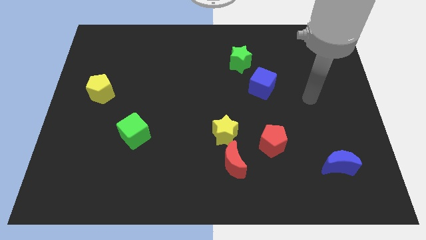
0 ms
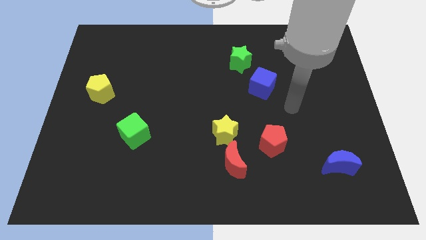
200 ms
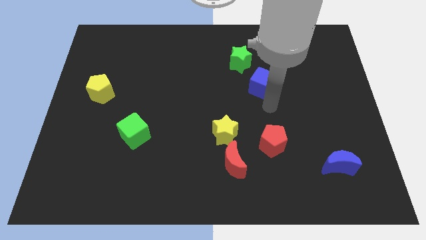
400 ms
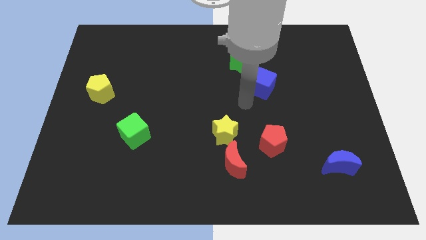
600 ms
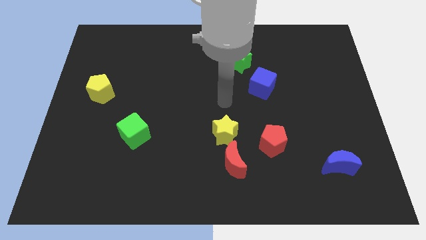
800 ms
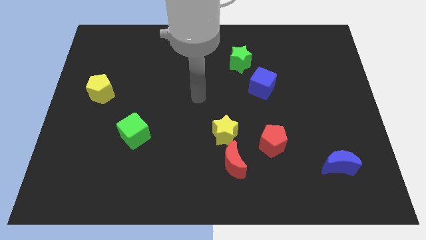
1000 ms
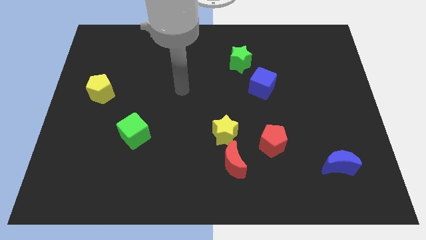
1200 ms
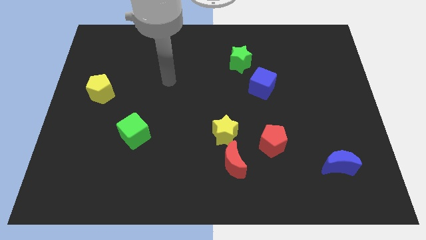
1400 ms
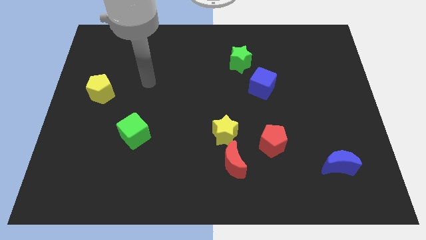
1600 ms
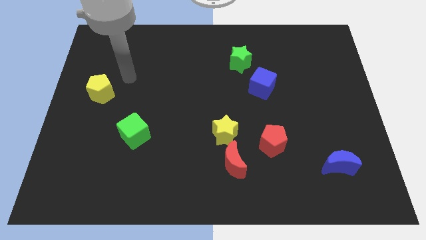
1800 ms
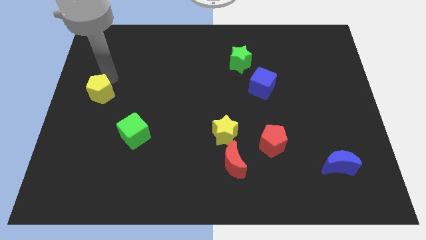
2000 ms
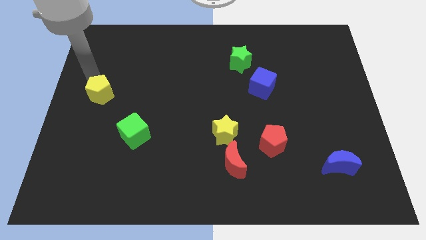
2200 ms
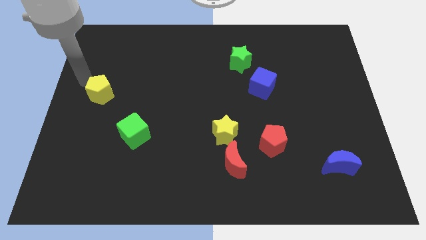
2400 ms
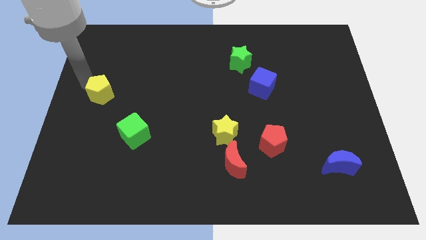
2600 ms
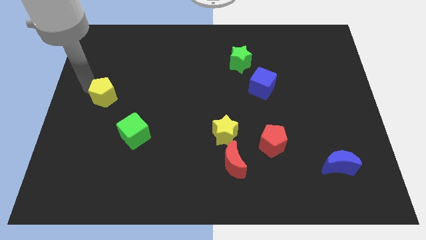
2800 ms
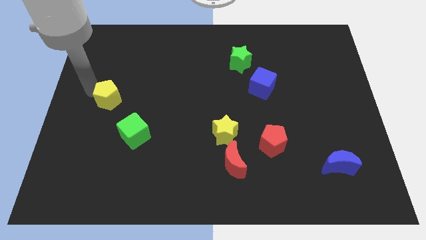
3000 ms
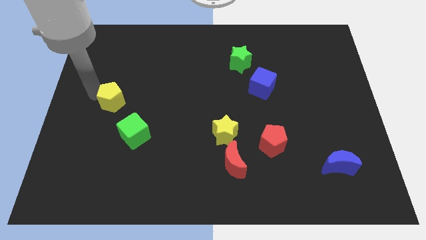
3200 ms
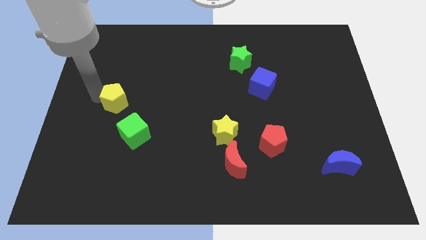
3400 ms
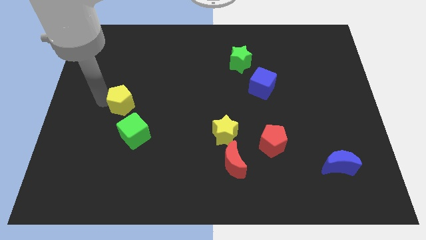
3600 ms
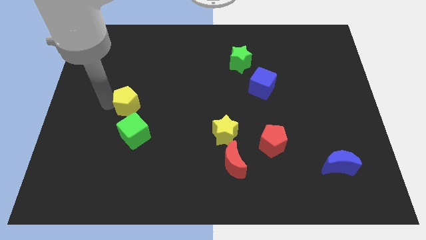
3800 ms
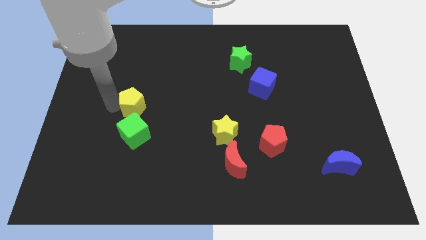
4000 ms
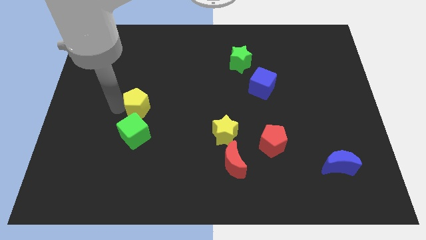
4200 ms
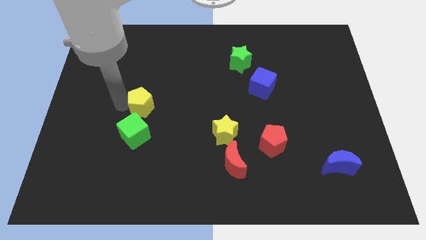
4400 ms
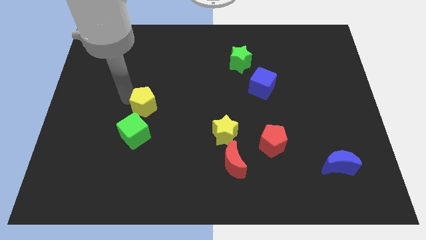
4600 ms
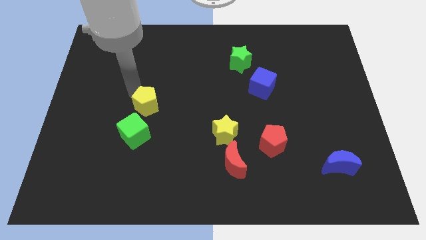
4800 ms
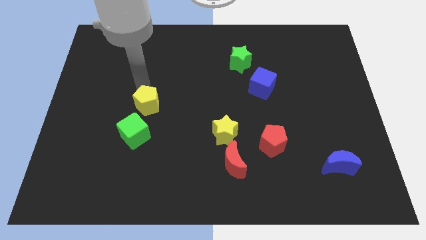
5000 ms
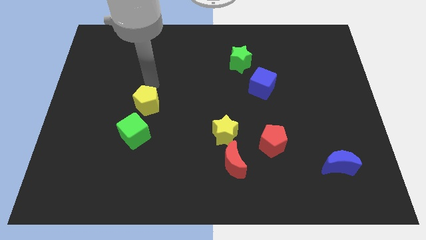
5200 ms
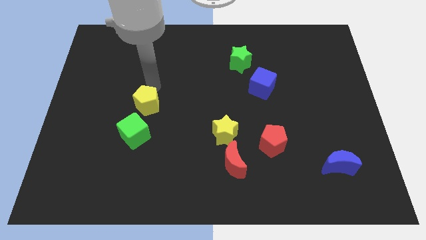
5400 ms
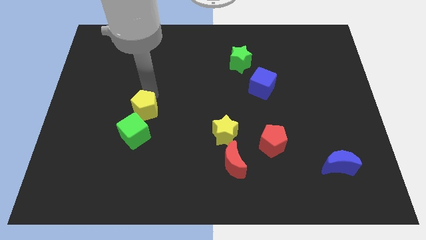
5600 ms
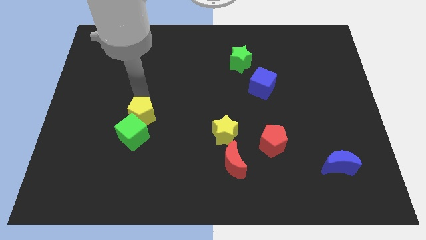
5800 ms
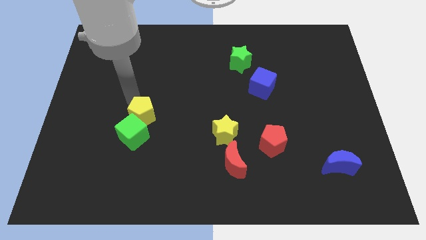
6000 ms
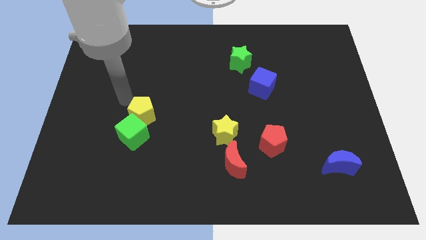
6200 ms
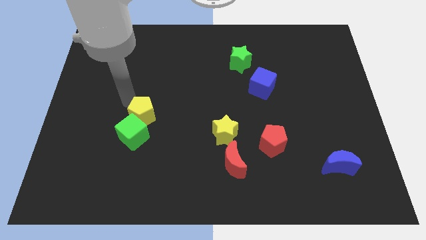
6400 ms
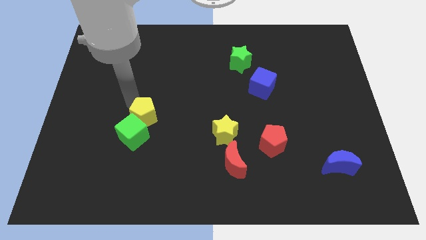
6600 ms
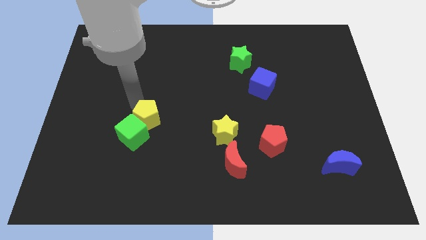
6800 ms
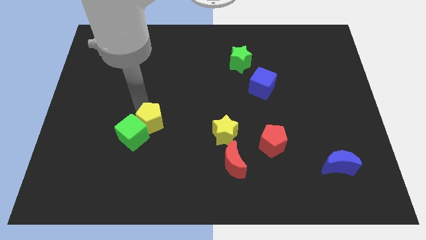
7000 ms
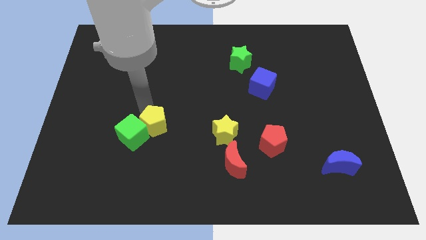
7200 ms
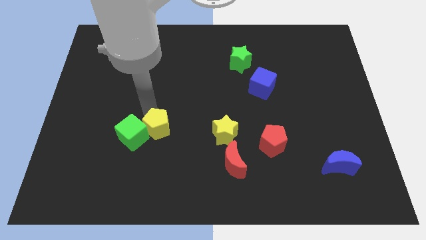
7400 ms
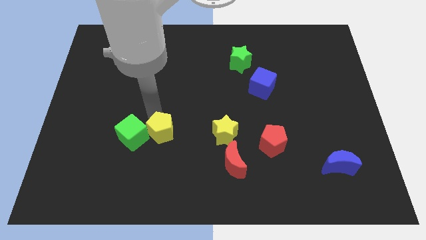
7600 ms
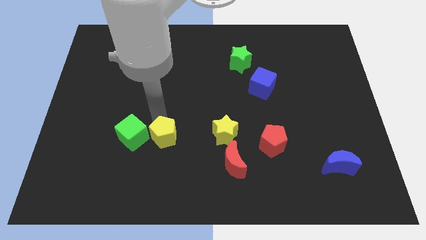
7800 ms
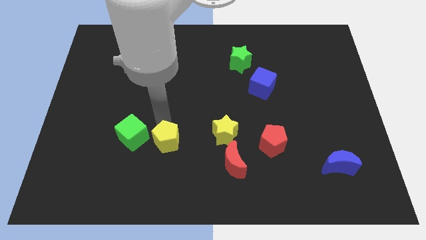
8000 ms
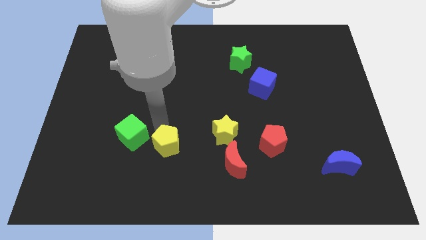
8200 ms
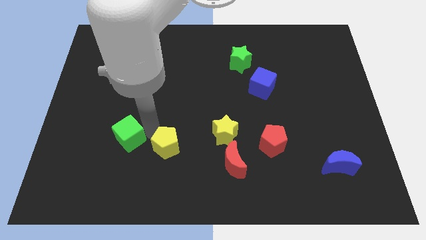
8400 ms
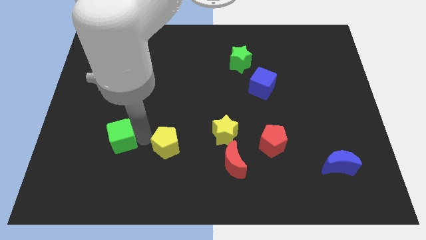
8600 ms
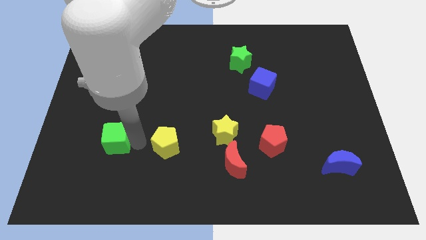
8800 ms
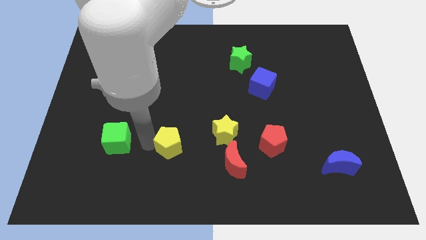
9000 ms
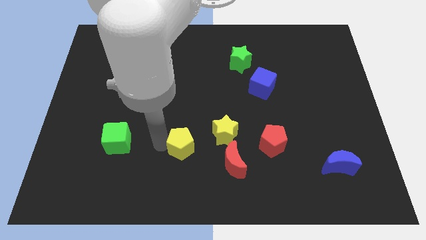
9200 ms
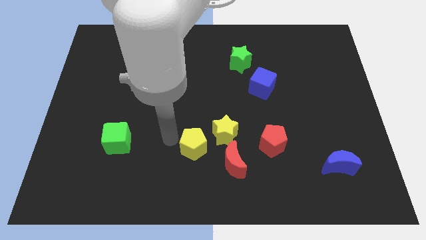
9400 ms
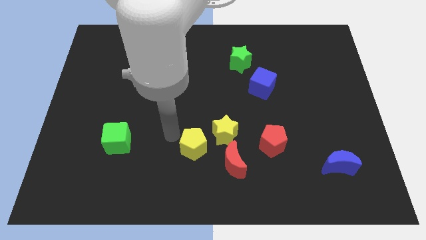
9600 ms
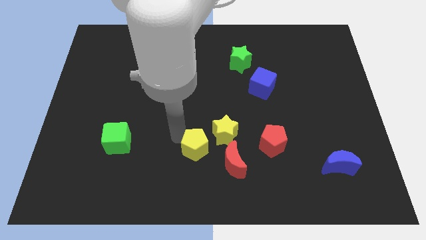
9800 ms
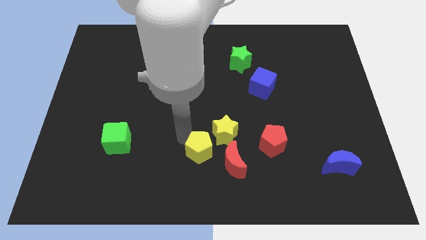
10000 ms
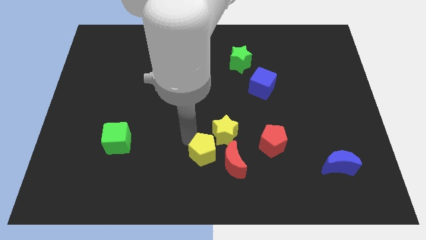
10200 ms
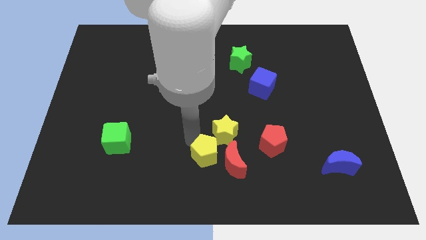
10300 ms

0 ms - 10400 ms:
put the yellow pentagon towards the red moon
